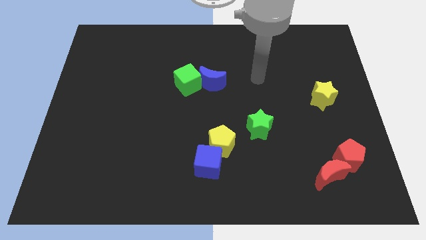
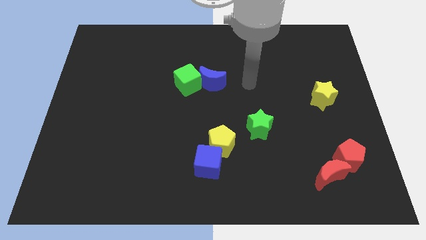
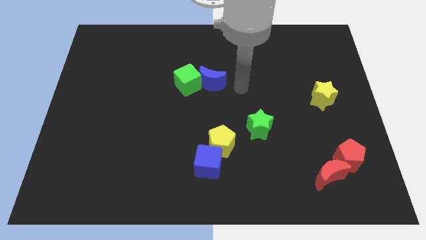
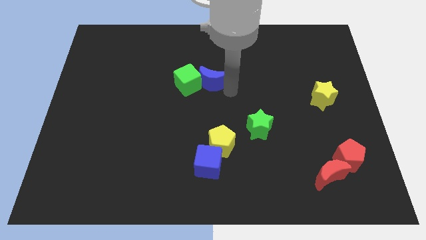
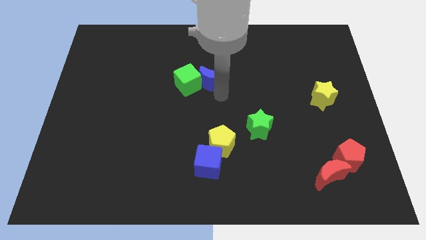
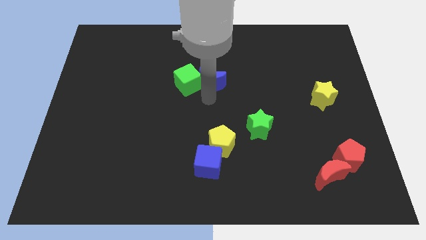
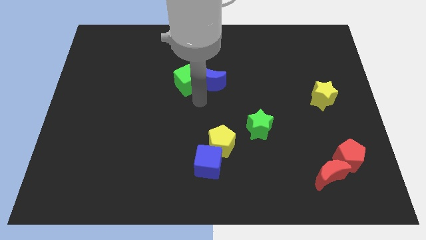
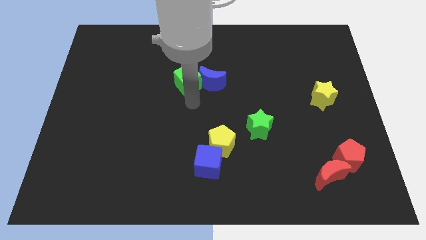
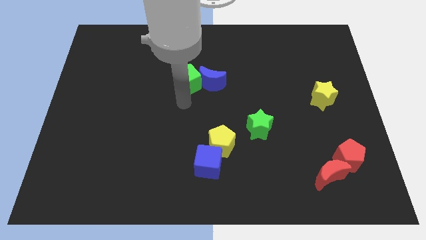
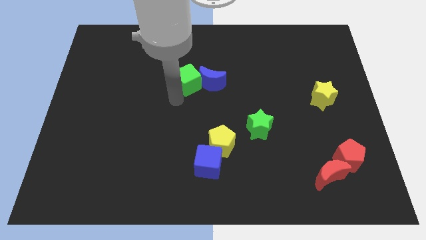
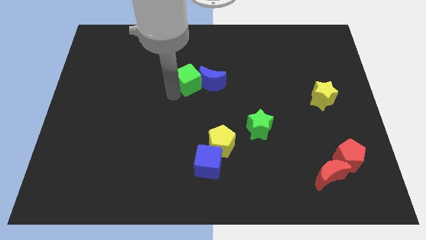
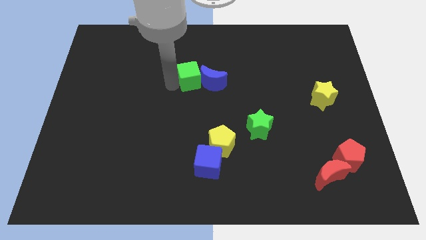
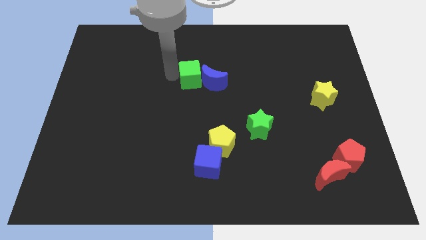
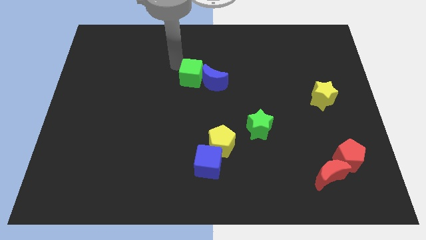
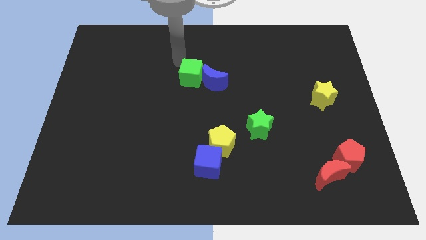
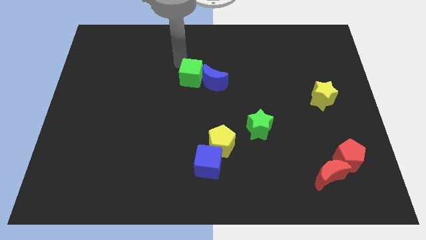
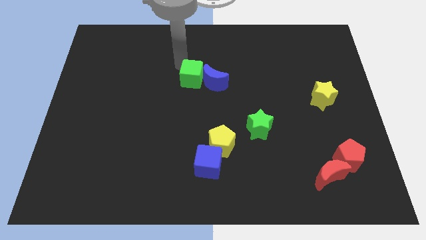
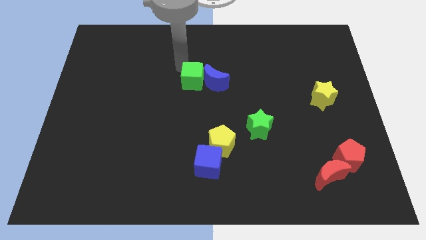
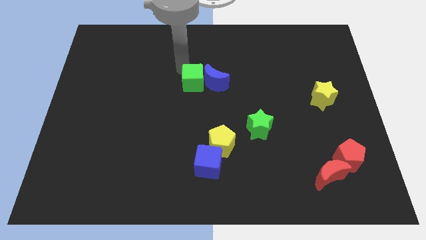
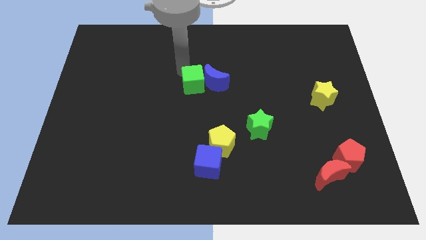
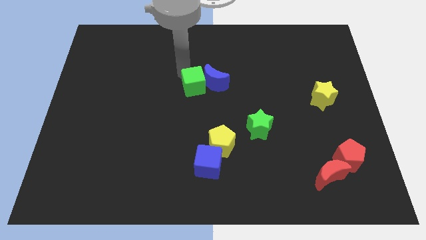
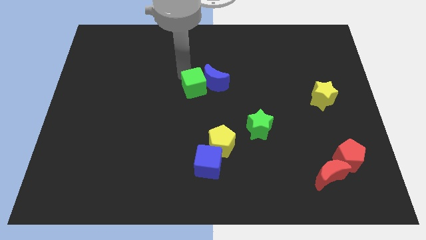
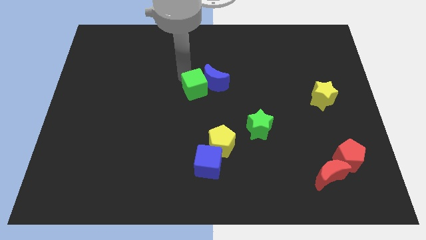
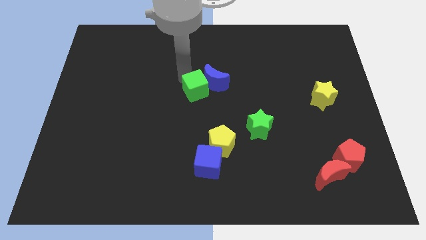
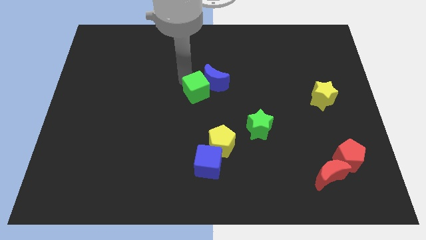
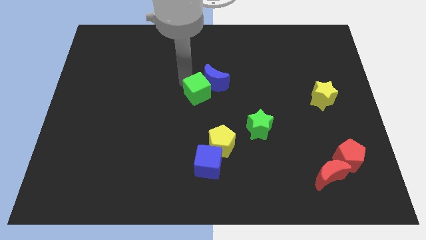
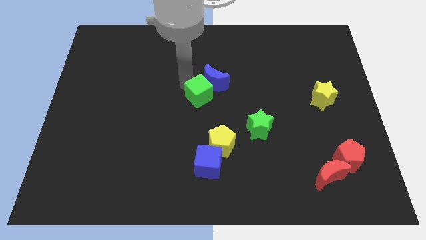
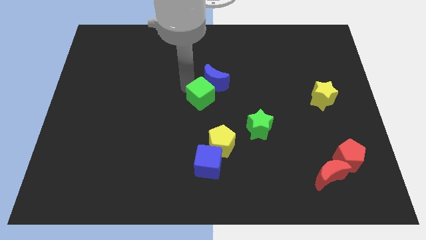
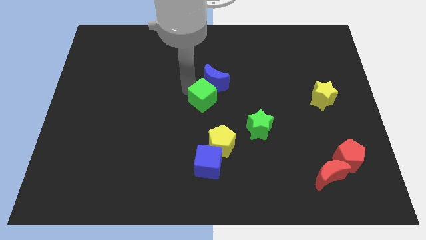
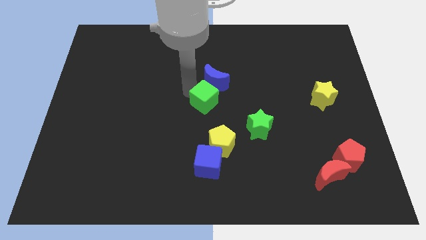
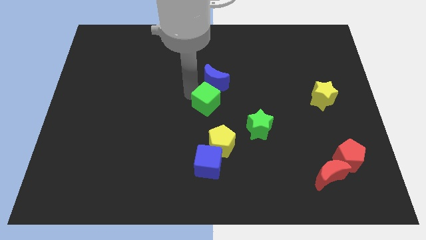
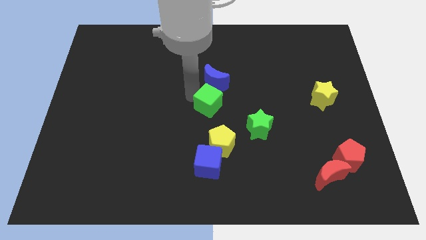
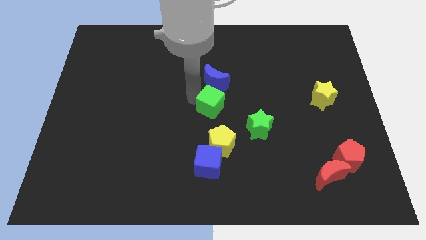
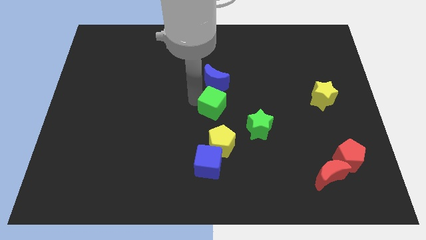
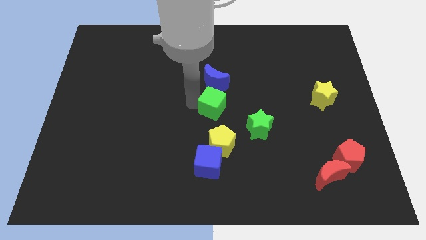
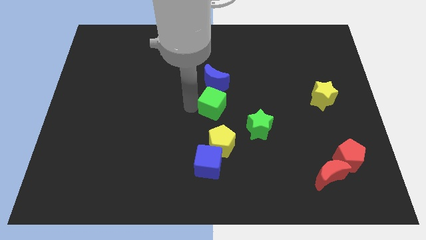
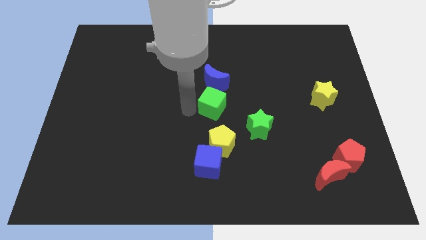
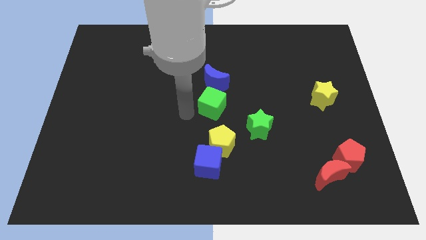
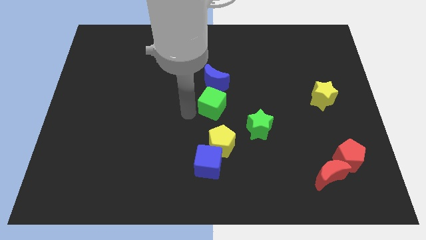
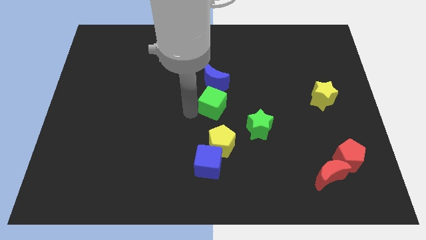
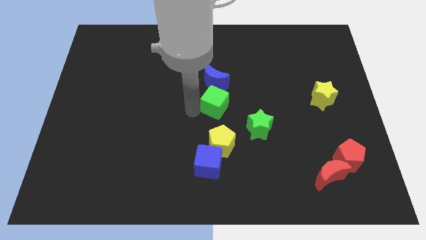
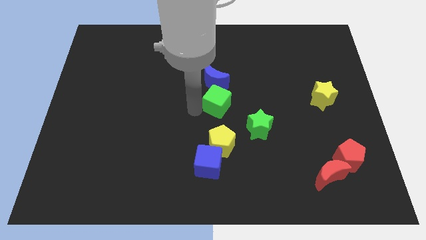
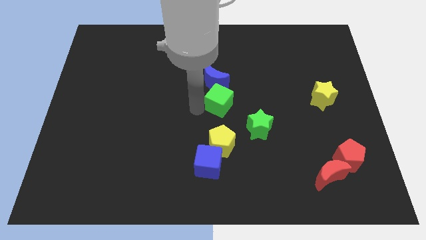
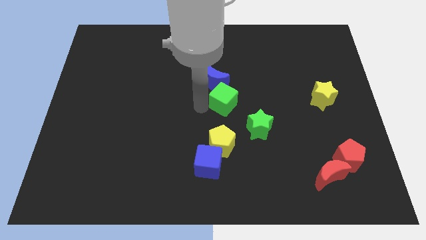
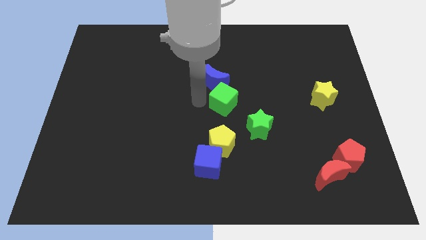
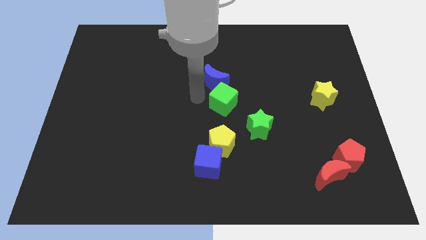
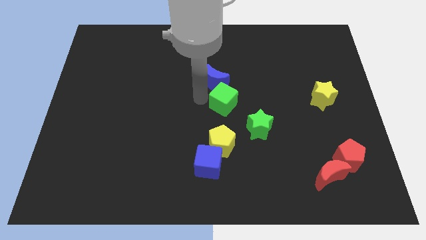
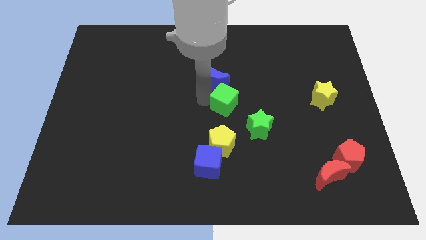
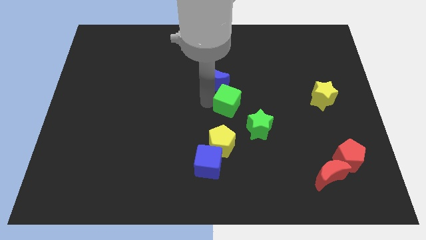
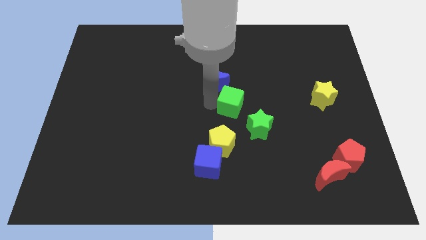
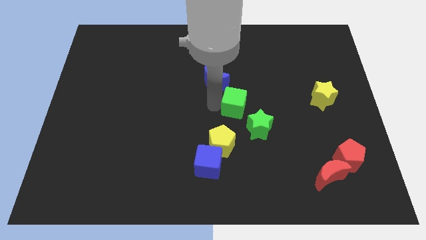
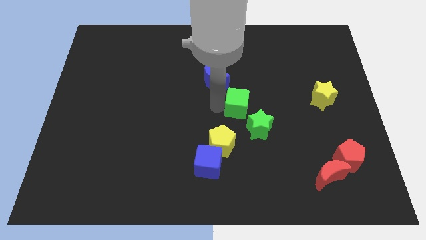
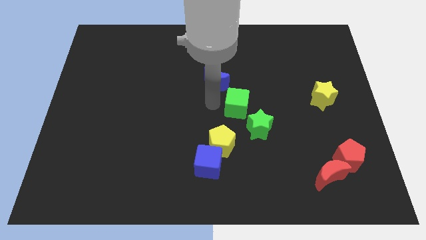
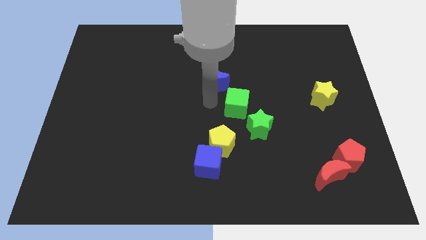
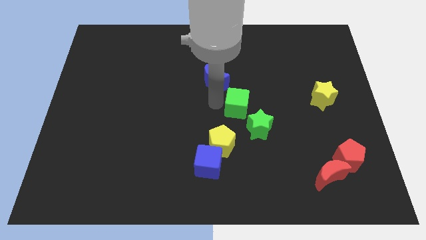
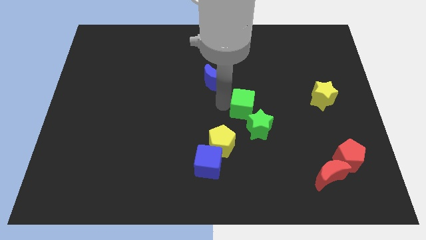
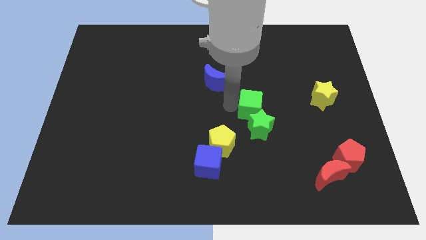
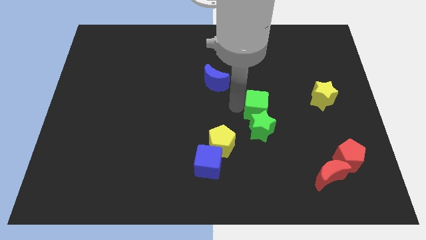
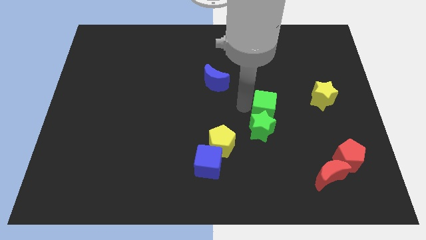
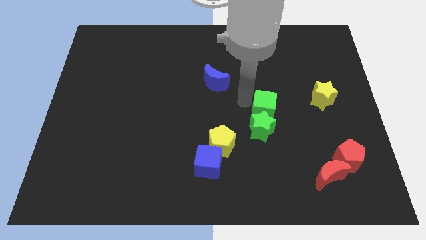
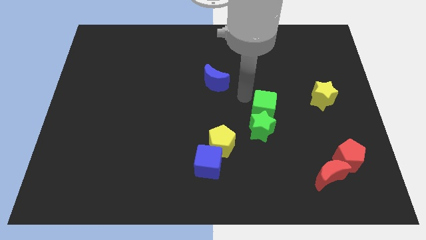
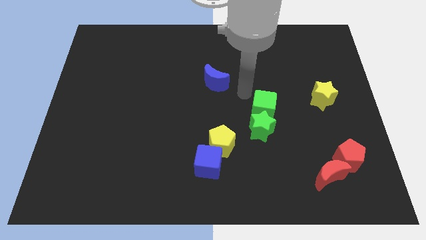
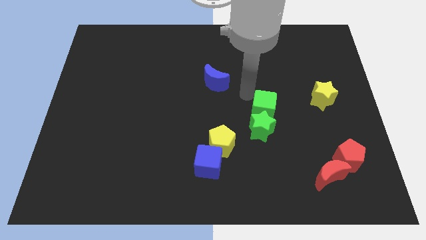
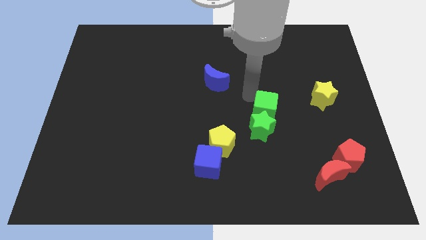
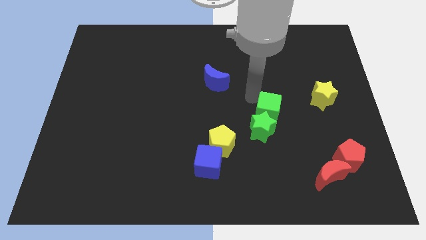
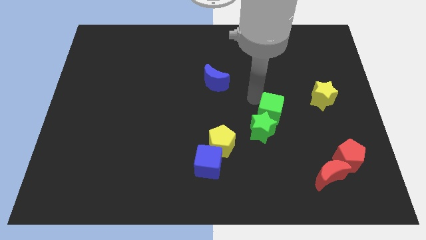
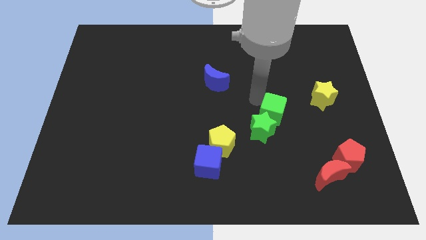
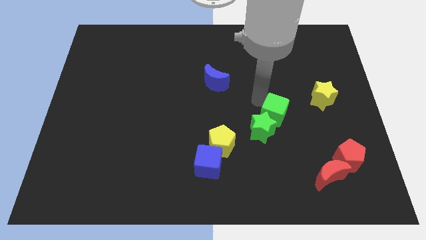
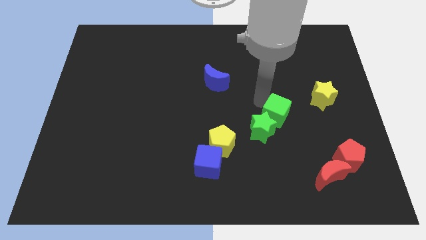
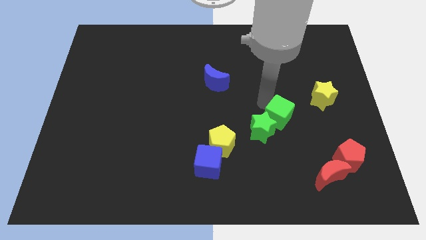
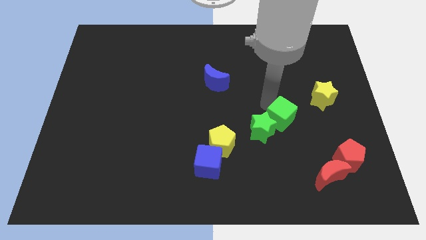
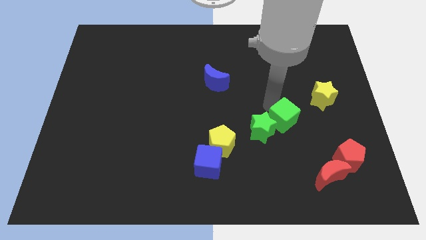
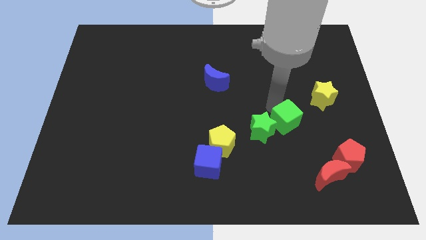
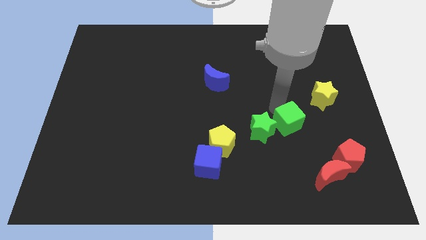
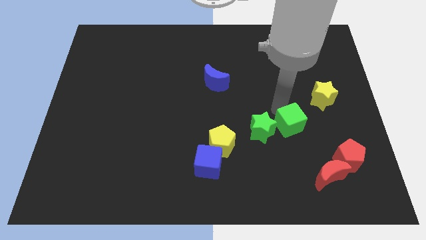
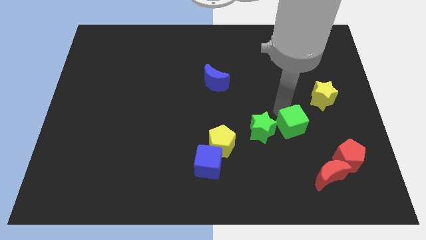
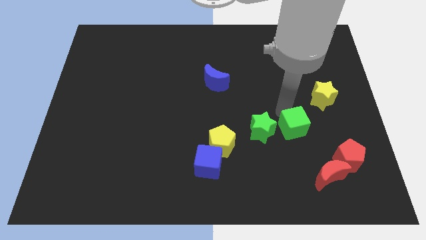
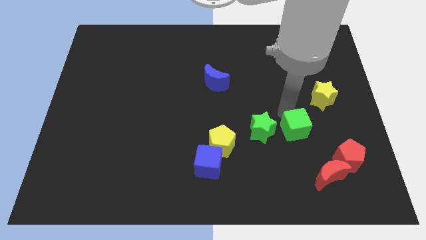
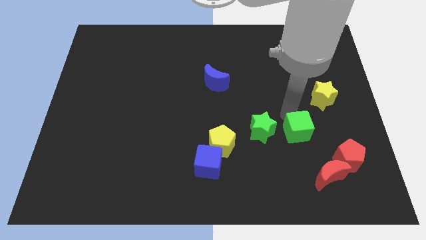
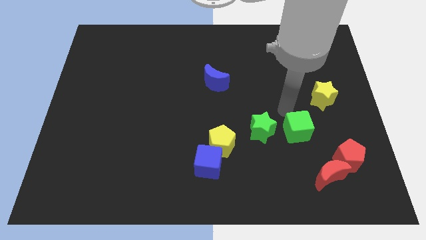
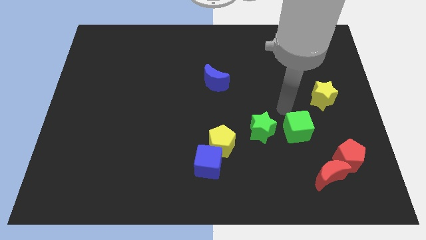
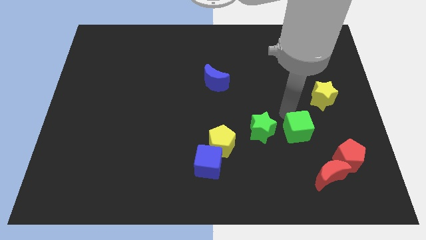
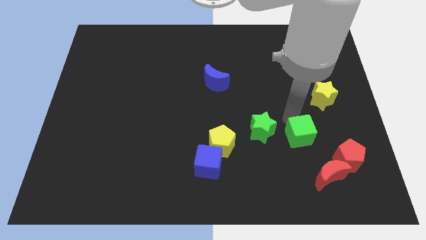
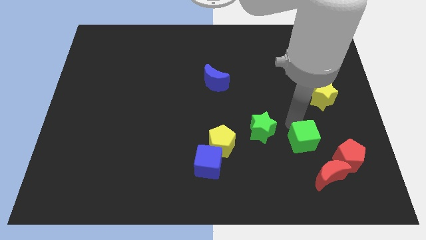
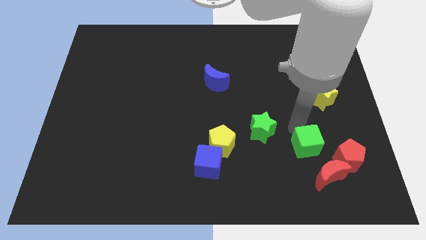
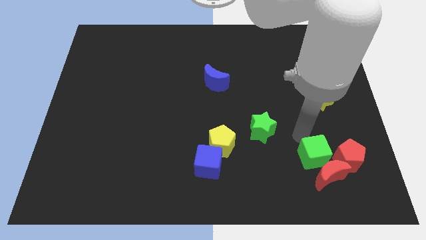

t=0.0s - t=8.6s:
slide the green cube next to the red moon
